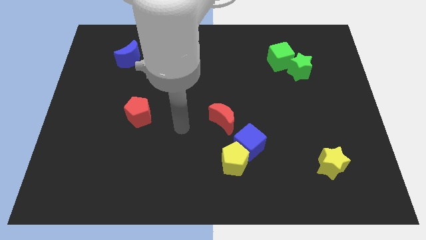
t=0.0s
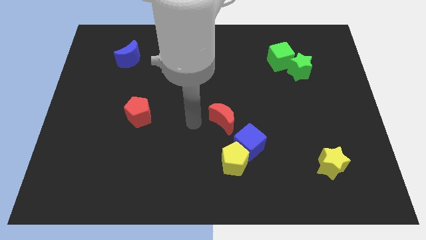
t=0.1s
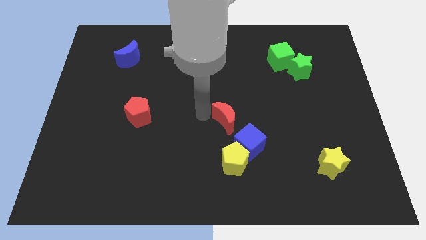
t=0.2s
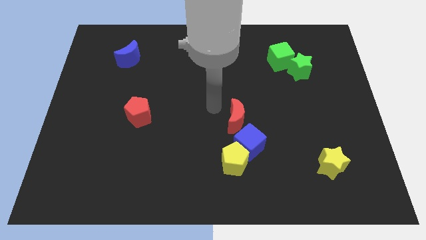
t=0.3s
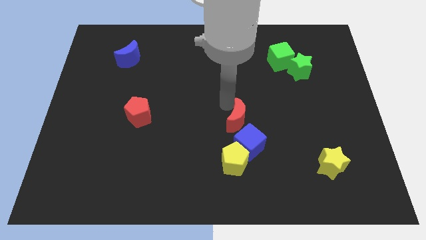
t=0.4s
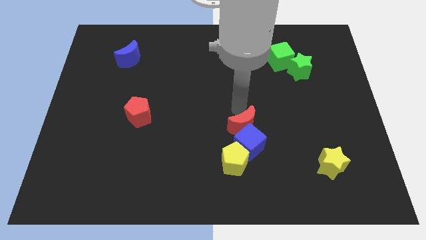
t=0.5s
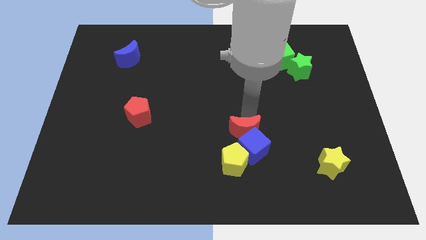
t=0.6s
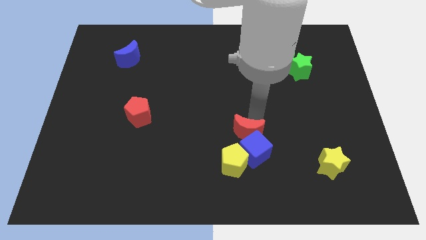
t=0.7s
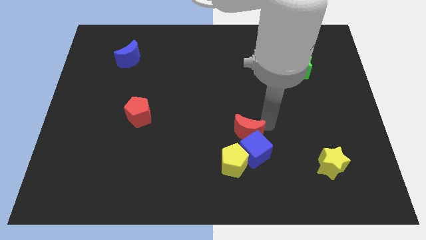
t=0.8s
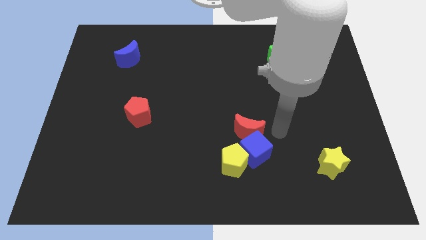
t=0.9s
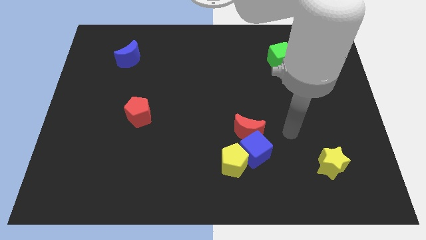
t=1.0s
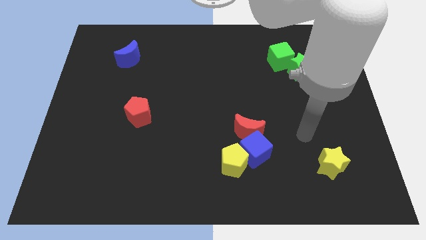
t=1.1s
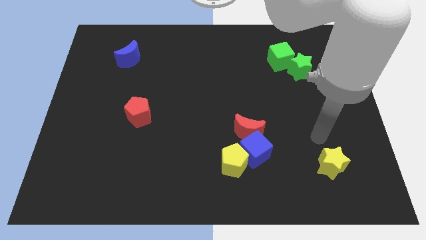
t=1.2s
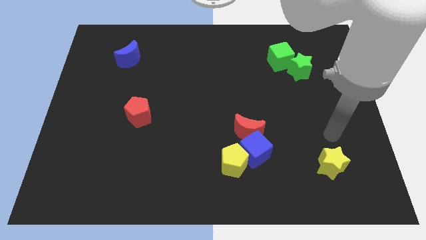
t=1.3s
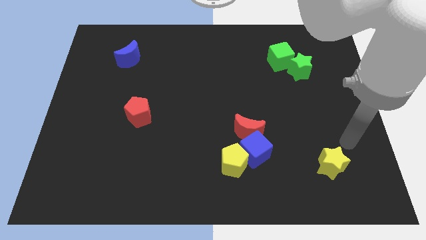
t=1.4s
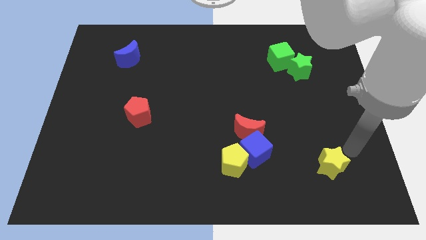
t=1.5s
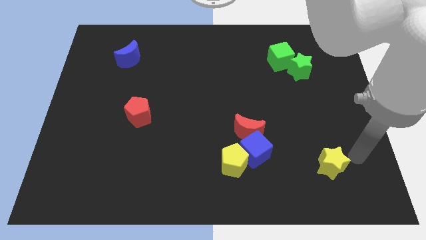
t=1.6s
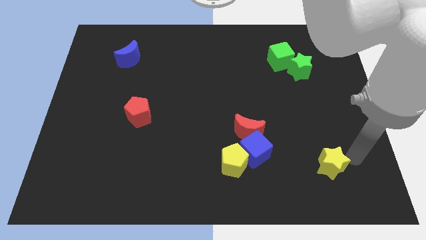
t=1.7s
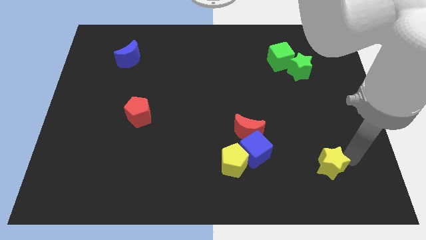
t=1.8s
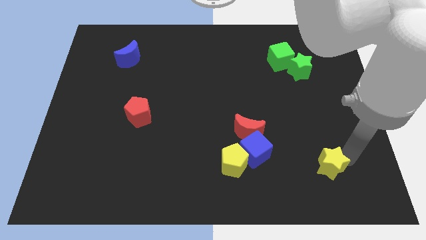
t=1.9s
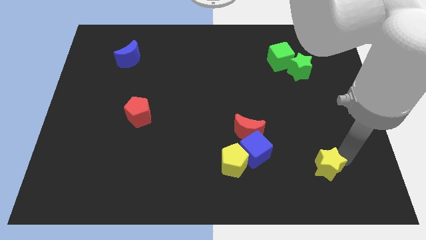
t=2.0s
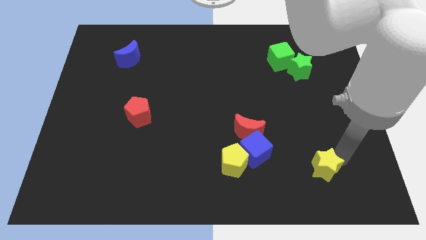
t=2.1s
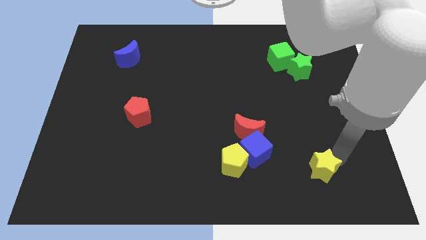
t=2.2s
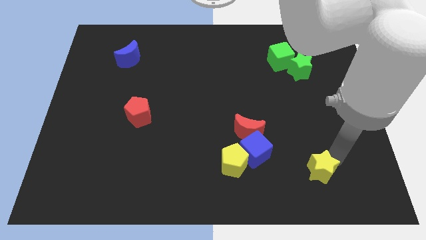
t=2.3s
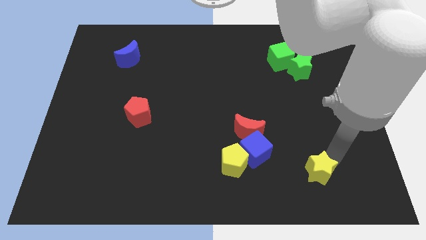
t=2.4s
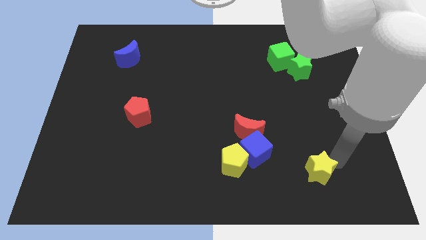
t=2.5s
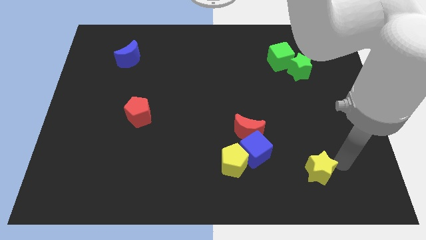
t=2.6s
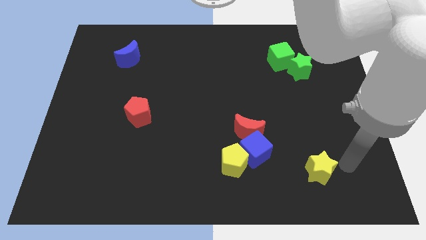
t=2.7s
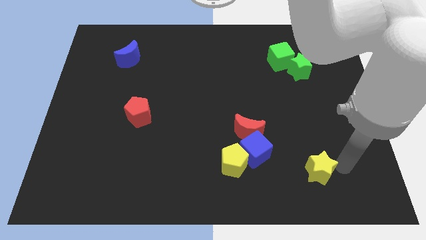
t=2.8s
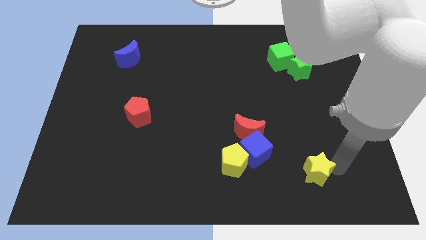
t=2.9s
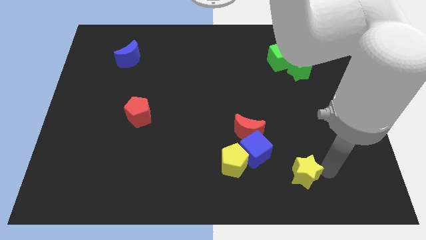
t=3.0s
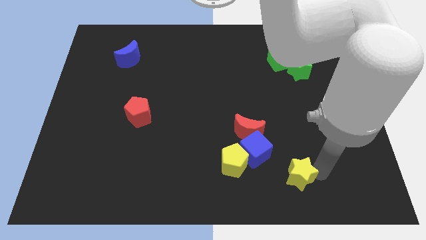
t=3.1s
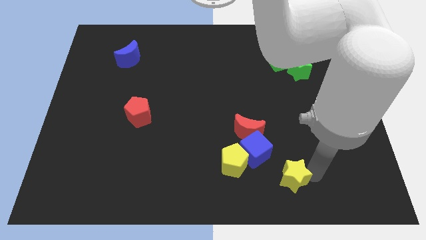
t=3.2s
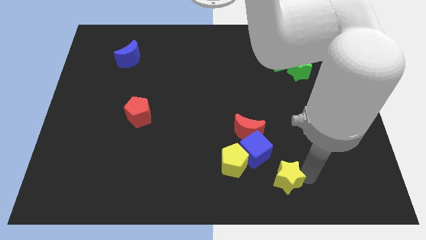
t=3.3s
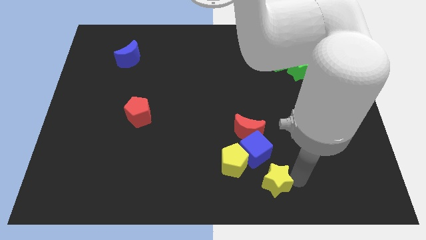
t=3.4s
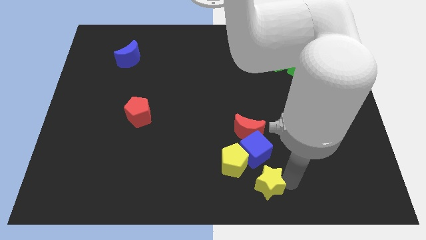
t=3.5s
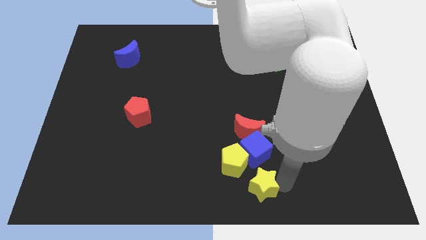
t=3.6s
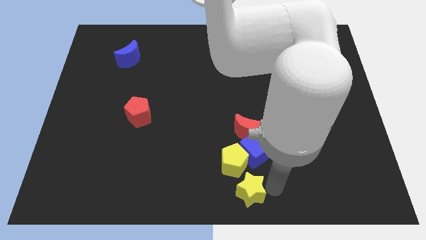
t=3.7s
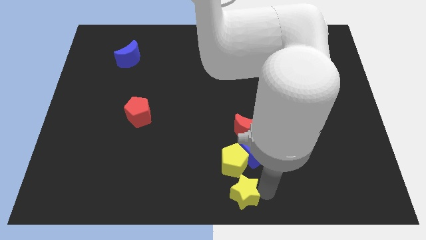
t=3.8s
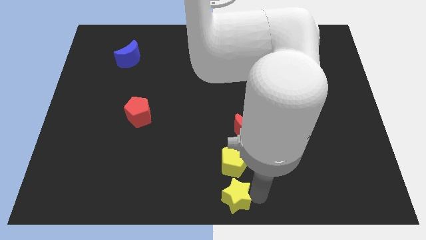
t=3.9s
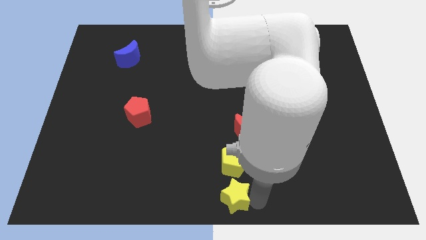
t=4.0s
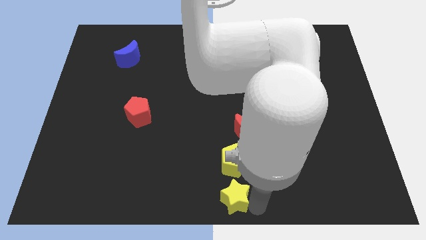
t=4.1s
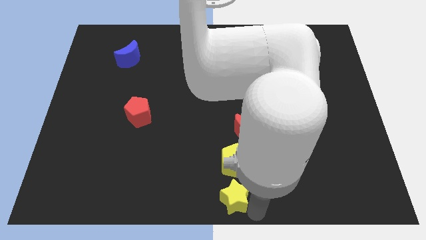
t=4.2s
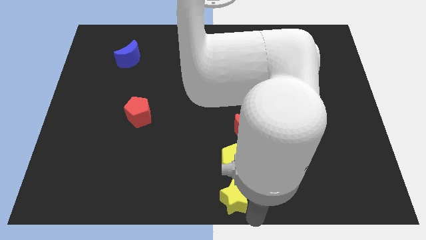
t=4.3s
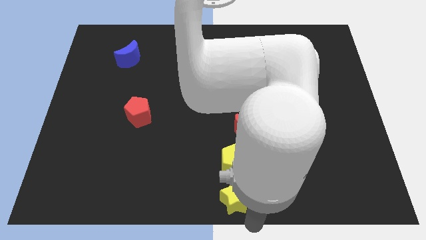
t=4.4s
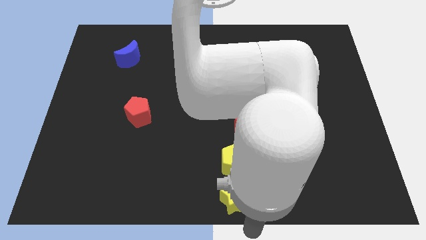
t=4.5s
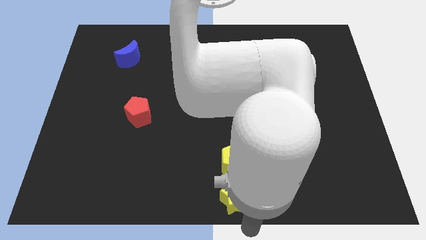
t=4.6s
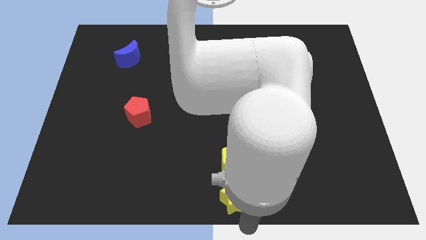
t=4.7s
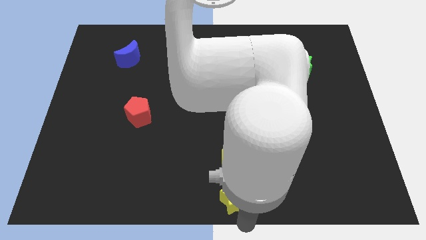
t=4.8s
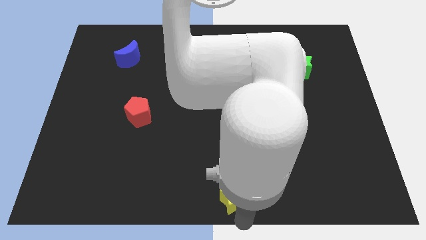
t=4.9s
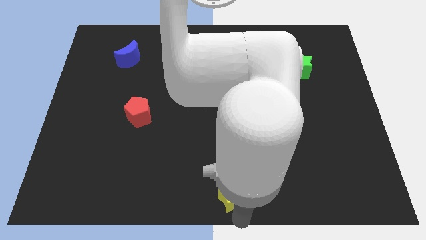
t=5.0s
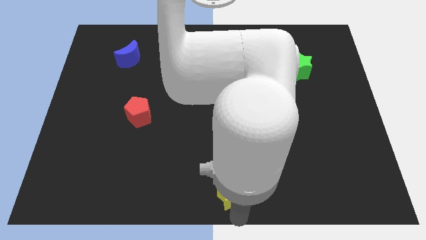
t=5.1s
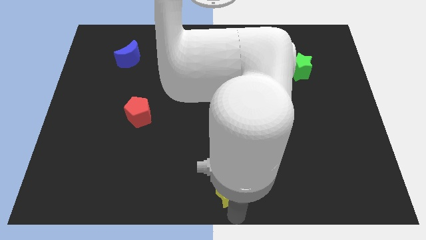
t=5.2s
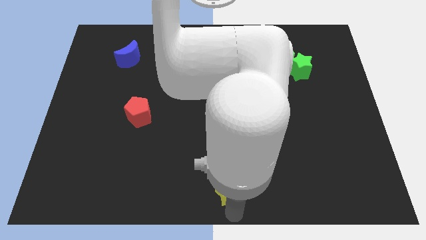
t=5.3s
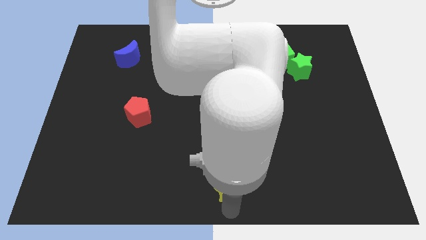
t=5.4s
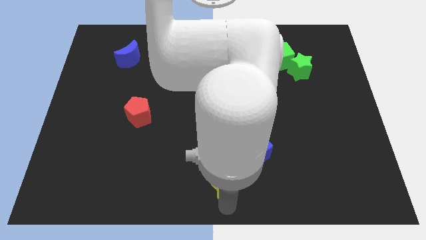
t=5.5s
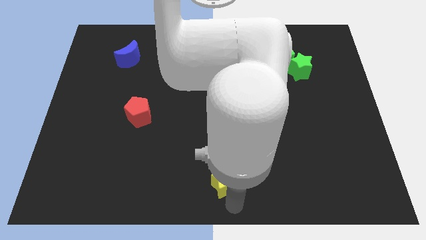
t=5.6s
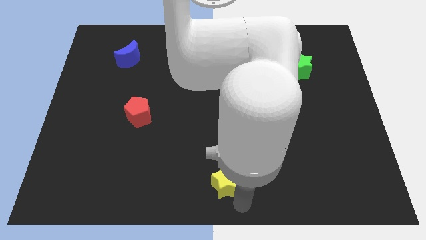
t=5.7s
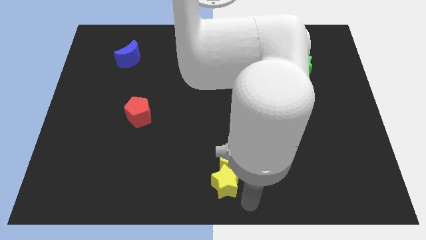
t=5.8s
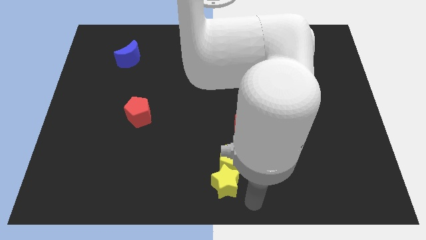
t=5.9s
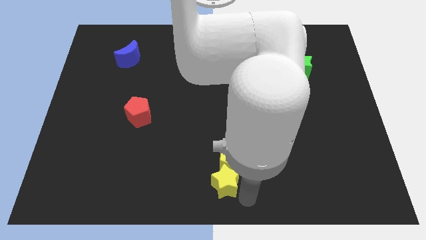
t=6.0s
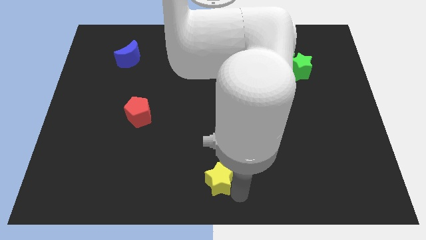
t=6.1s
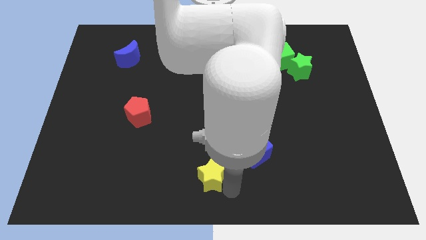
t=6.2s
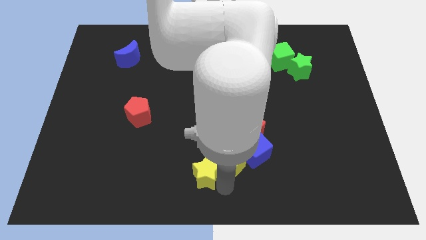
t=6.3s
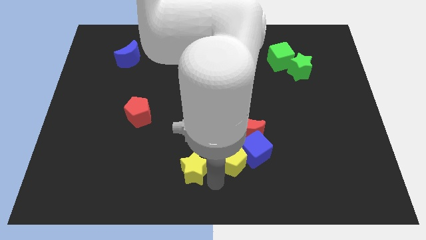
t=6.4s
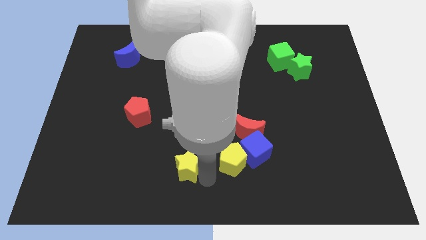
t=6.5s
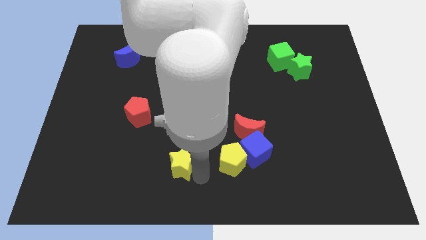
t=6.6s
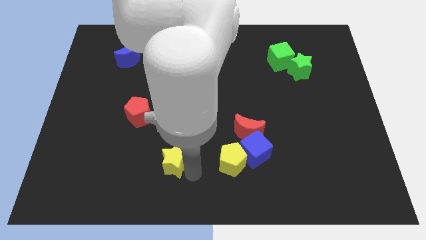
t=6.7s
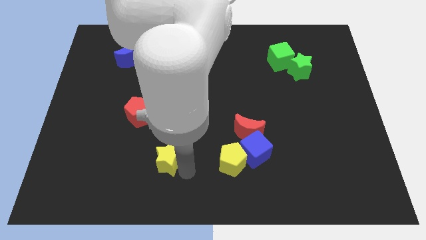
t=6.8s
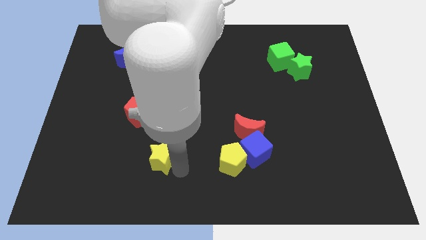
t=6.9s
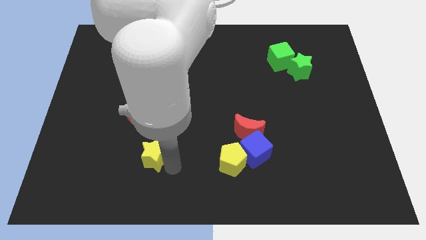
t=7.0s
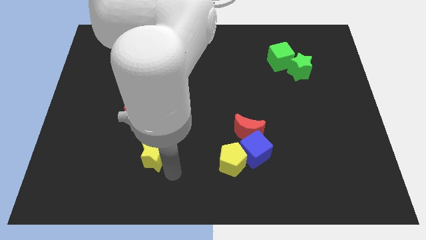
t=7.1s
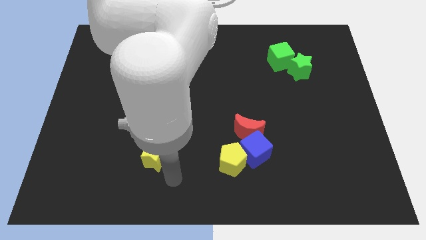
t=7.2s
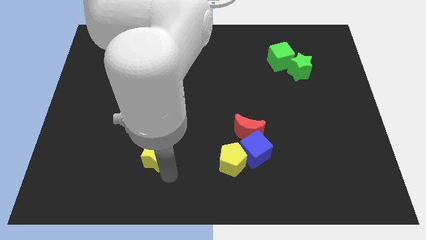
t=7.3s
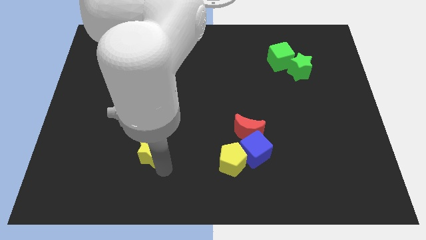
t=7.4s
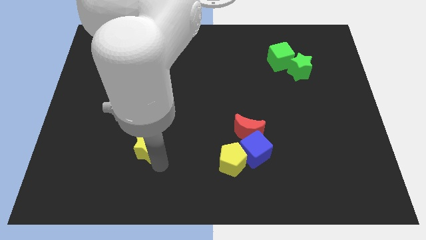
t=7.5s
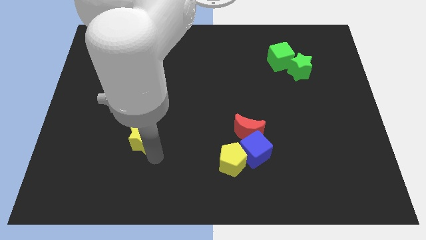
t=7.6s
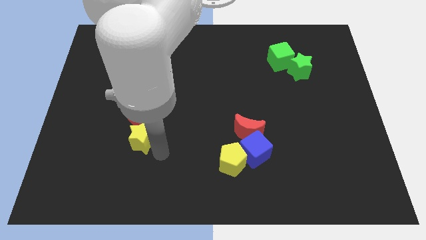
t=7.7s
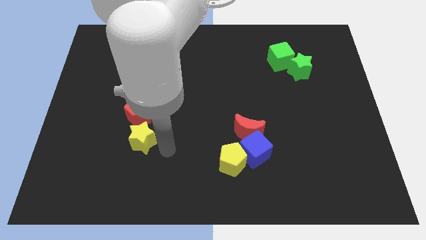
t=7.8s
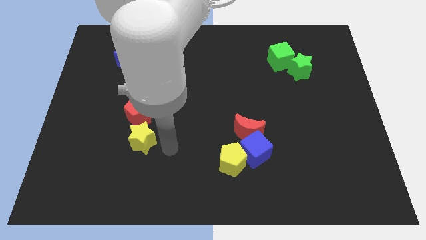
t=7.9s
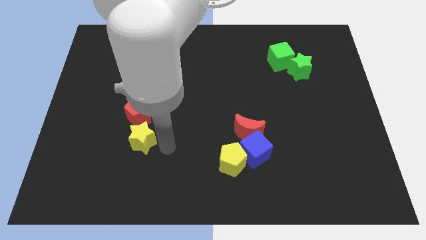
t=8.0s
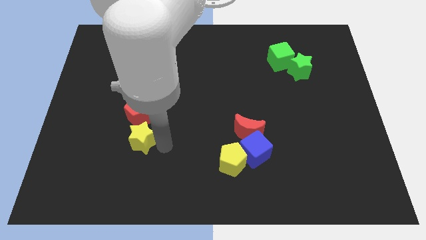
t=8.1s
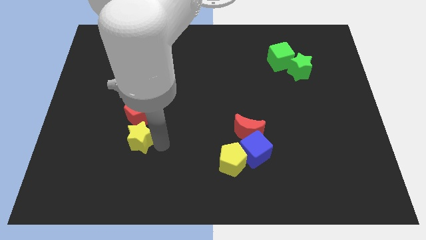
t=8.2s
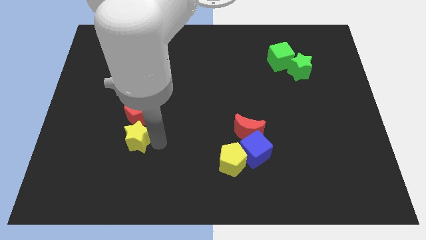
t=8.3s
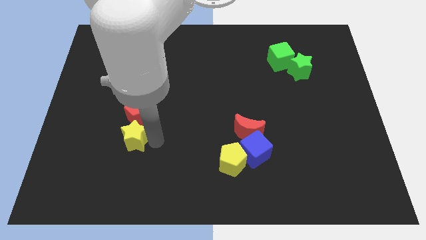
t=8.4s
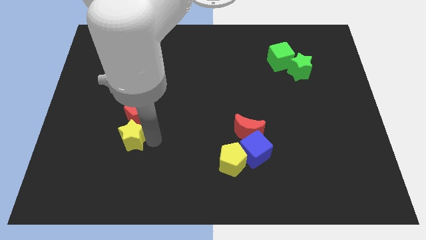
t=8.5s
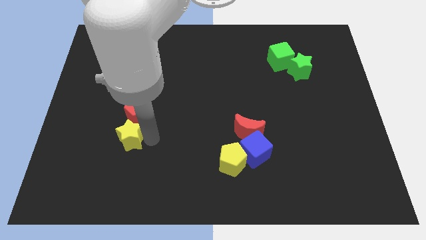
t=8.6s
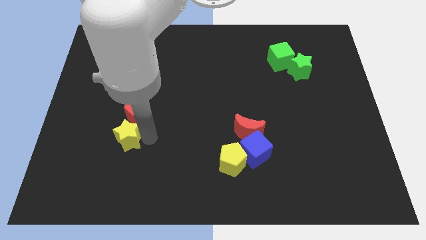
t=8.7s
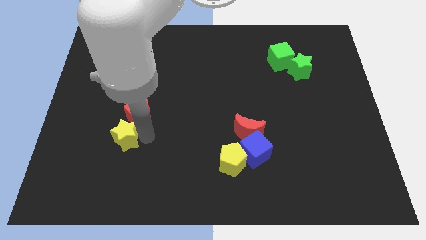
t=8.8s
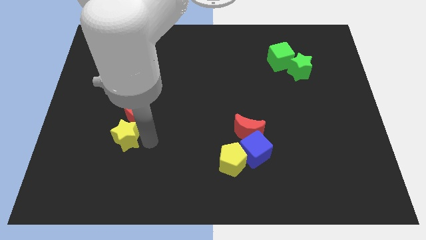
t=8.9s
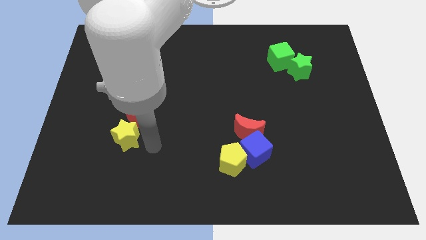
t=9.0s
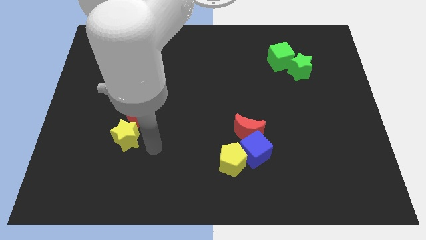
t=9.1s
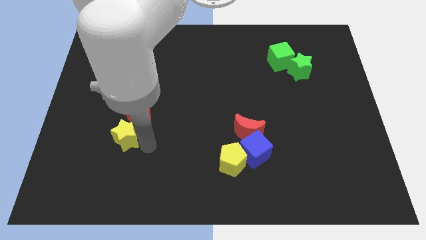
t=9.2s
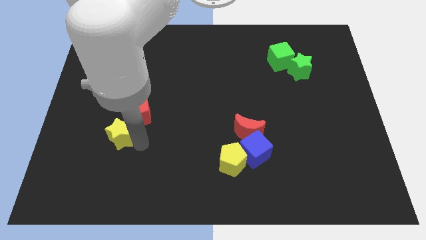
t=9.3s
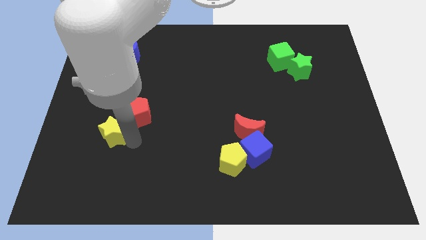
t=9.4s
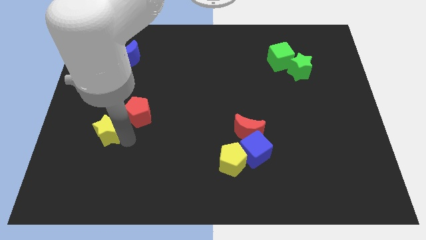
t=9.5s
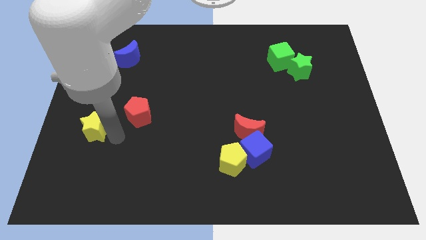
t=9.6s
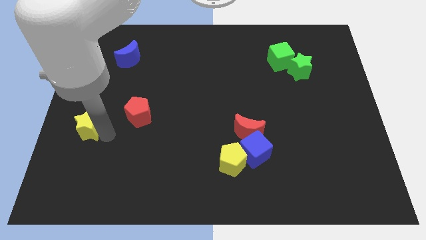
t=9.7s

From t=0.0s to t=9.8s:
push the yellow star to the left side of the board
